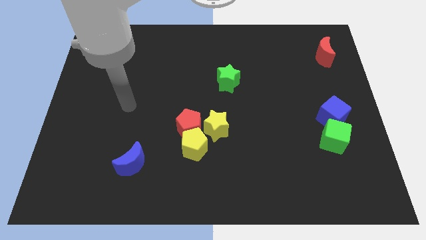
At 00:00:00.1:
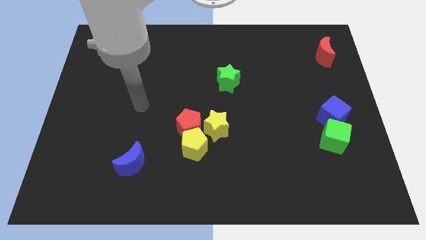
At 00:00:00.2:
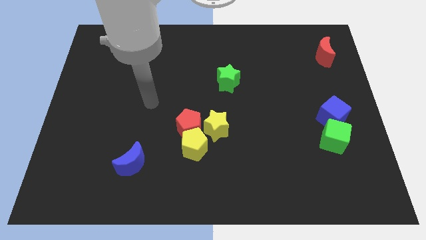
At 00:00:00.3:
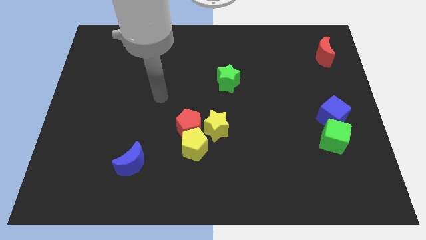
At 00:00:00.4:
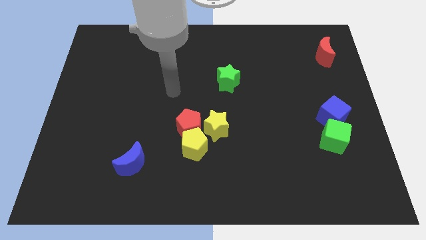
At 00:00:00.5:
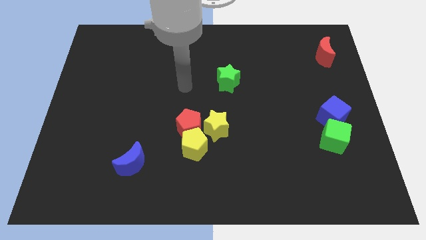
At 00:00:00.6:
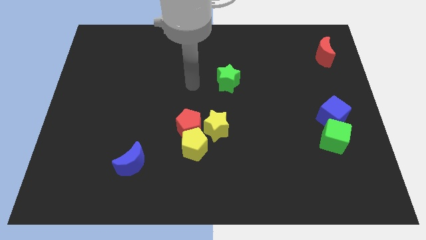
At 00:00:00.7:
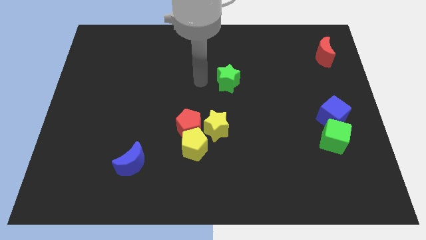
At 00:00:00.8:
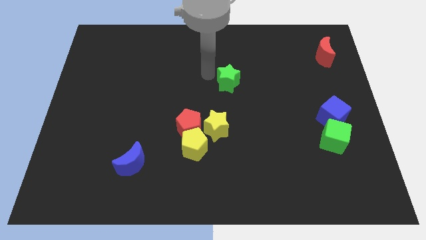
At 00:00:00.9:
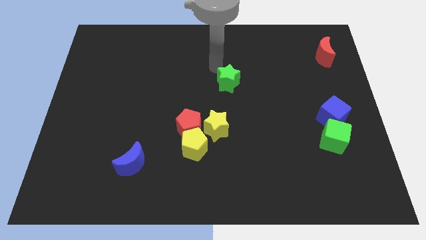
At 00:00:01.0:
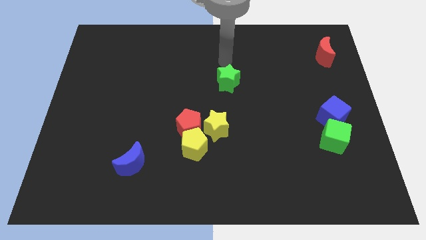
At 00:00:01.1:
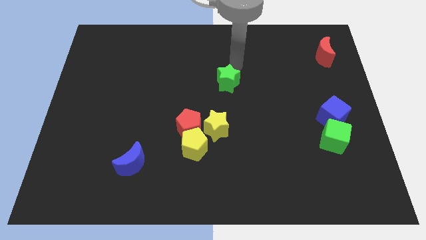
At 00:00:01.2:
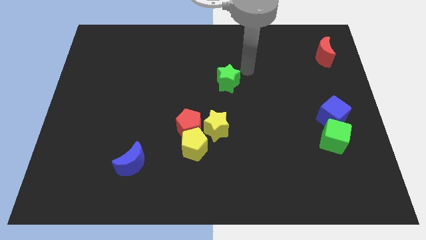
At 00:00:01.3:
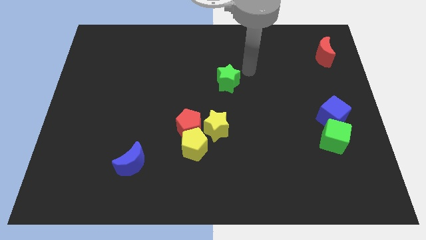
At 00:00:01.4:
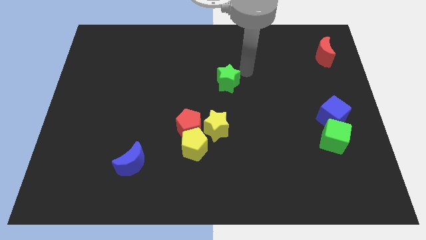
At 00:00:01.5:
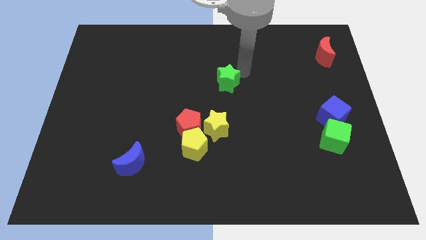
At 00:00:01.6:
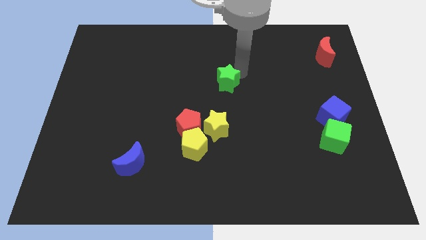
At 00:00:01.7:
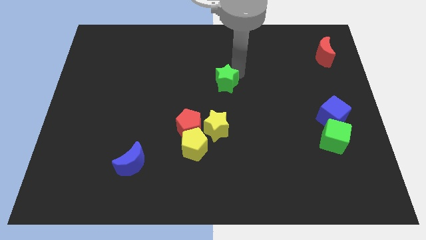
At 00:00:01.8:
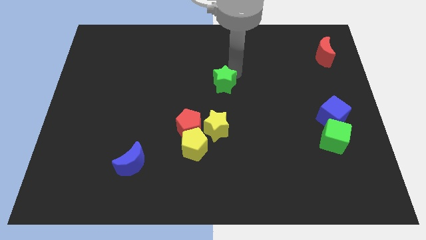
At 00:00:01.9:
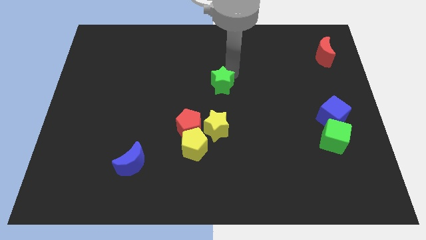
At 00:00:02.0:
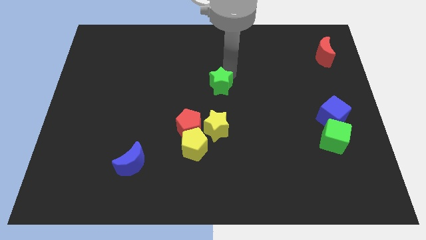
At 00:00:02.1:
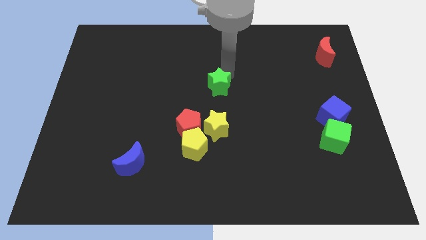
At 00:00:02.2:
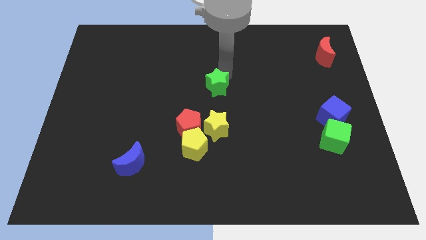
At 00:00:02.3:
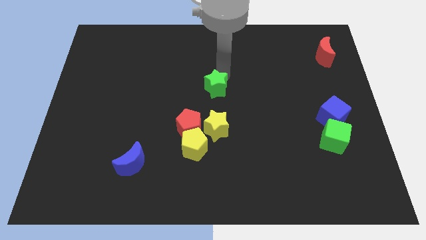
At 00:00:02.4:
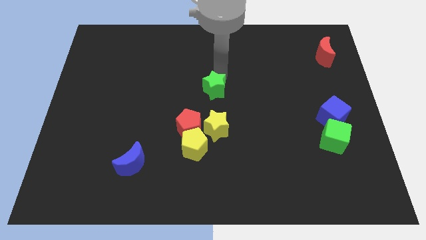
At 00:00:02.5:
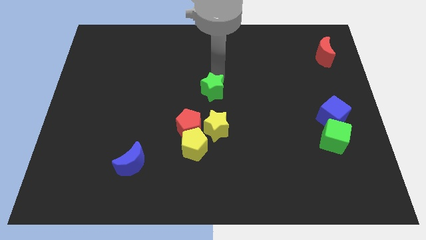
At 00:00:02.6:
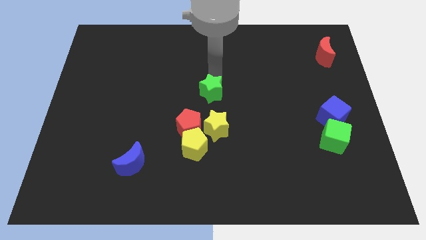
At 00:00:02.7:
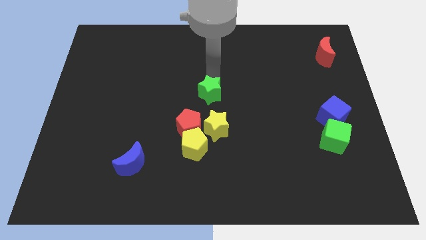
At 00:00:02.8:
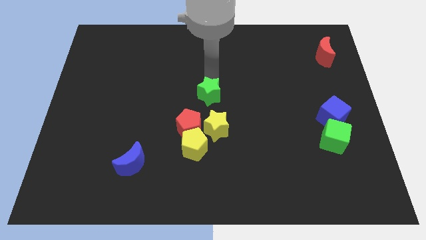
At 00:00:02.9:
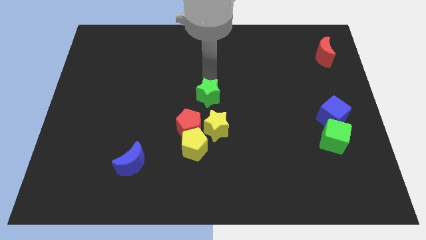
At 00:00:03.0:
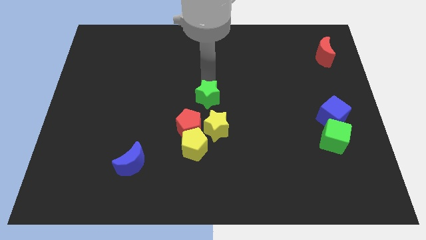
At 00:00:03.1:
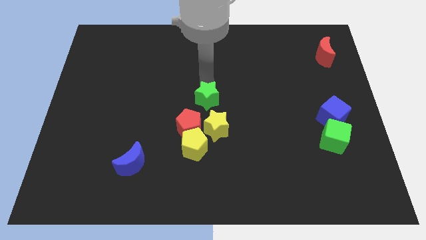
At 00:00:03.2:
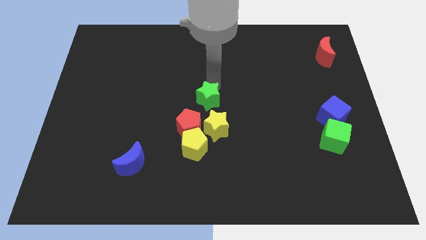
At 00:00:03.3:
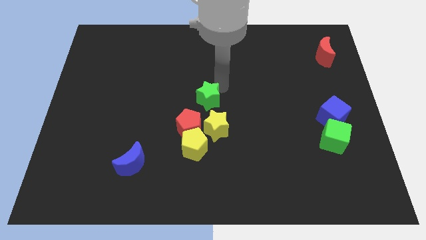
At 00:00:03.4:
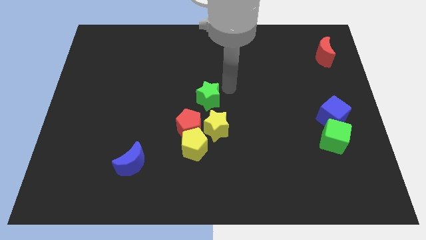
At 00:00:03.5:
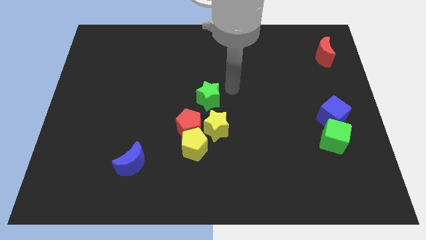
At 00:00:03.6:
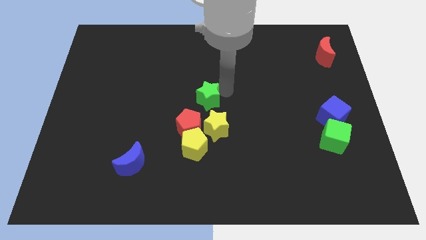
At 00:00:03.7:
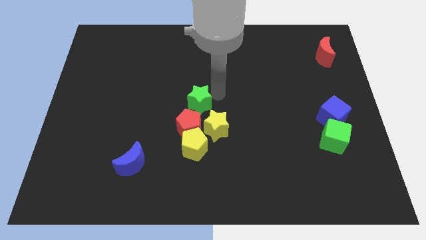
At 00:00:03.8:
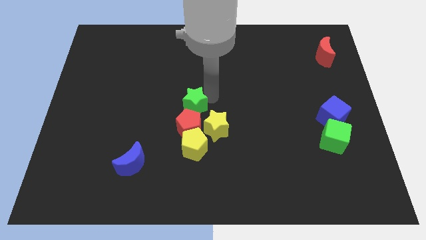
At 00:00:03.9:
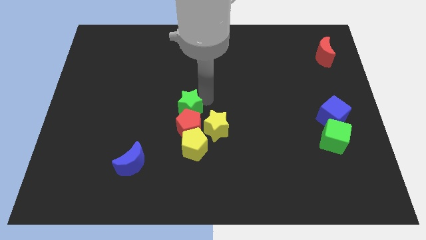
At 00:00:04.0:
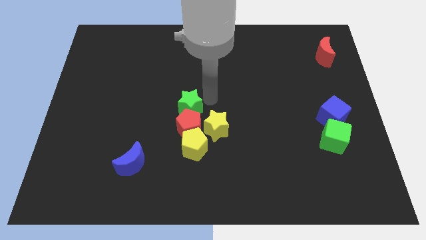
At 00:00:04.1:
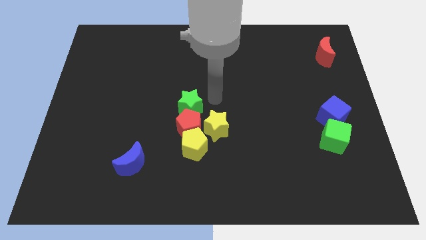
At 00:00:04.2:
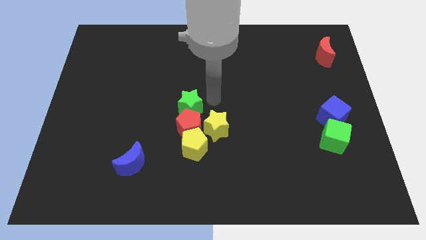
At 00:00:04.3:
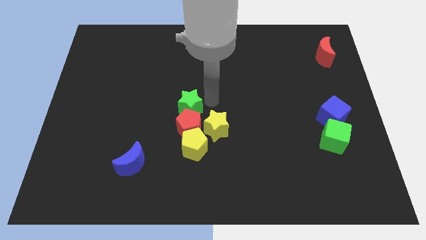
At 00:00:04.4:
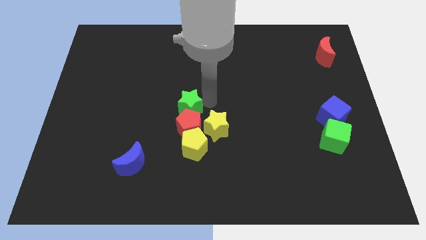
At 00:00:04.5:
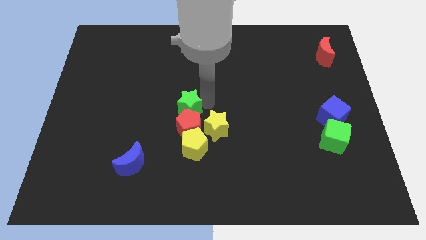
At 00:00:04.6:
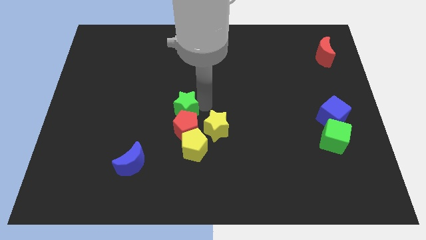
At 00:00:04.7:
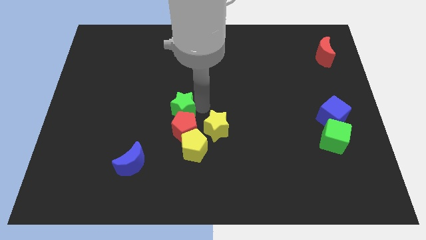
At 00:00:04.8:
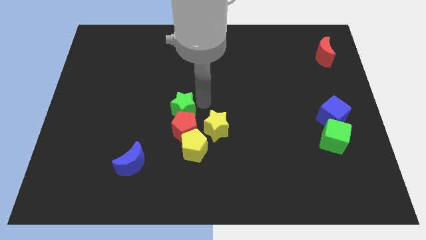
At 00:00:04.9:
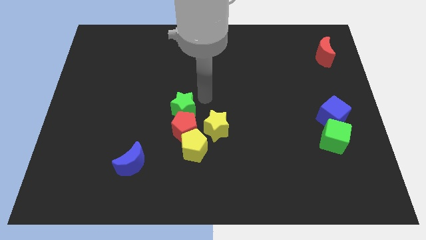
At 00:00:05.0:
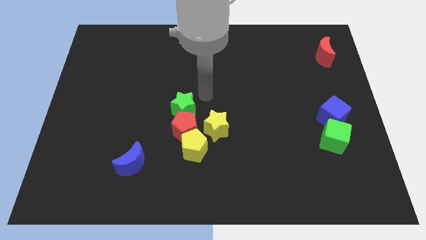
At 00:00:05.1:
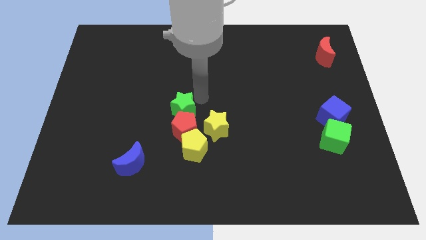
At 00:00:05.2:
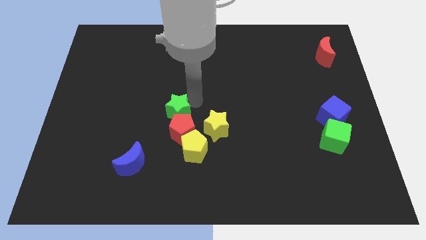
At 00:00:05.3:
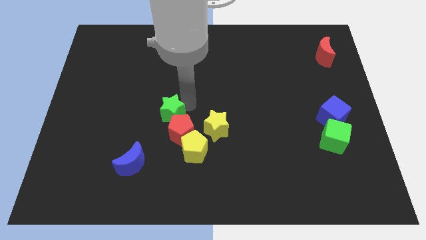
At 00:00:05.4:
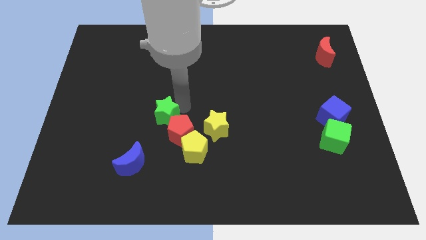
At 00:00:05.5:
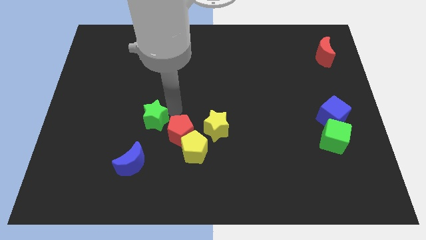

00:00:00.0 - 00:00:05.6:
put the green star to the left side of the red pentagon

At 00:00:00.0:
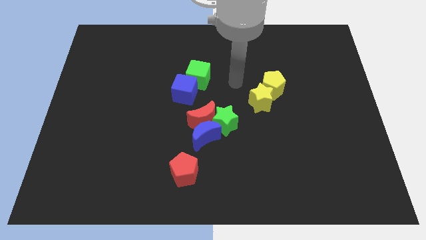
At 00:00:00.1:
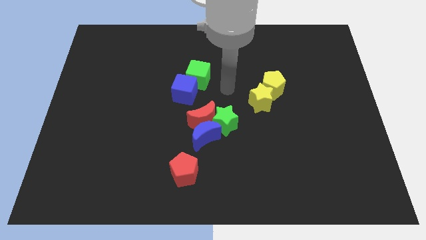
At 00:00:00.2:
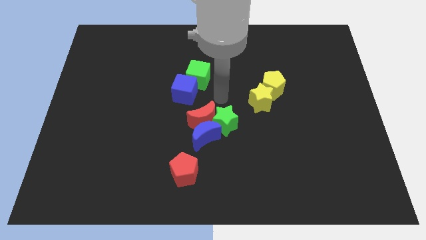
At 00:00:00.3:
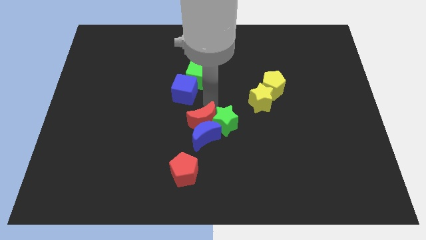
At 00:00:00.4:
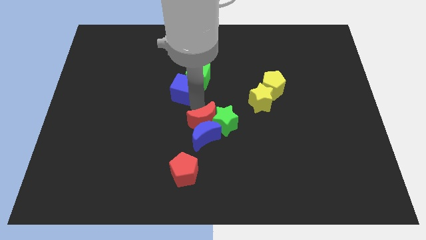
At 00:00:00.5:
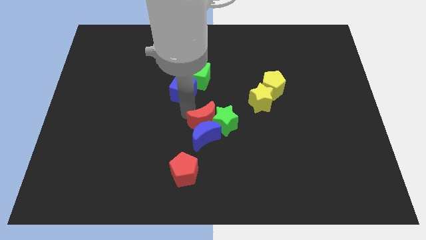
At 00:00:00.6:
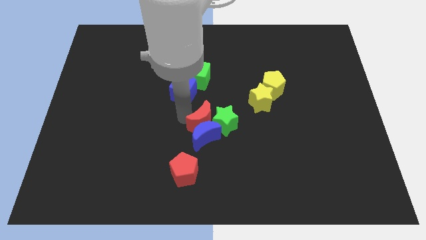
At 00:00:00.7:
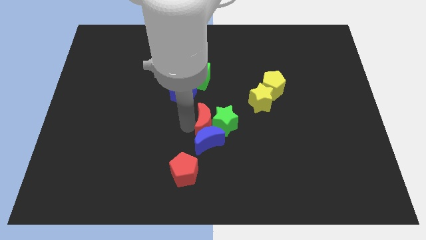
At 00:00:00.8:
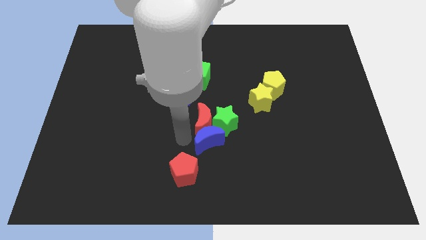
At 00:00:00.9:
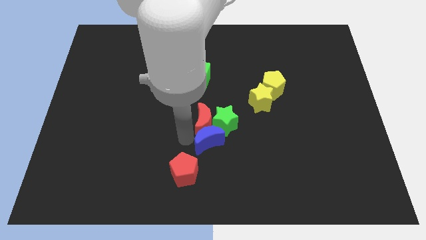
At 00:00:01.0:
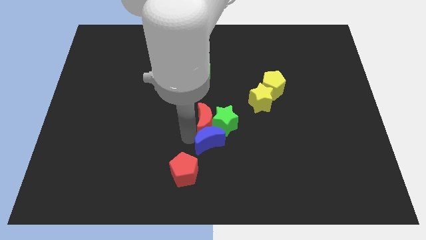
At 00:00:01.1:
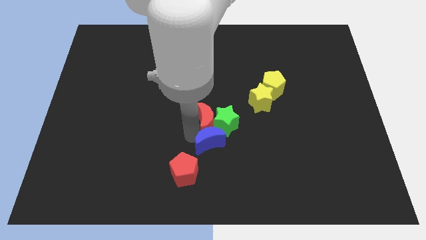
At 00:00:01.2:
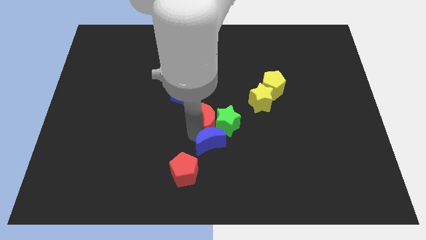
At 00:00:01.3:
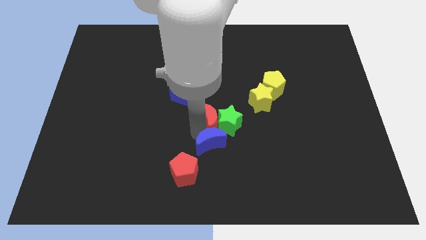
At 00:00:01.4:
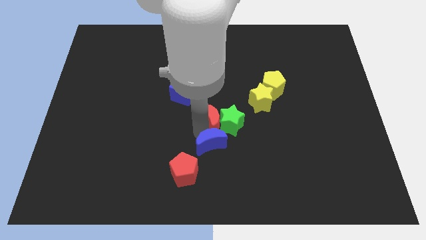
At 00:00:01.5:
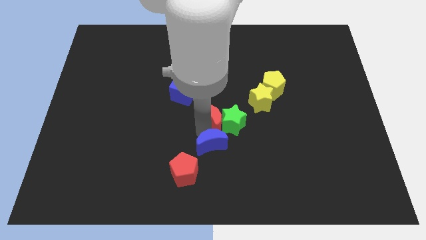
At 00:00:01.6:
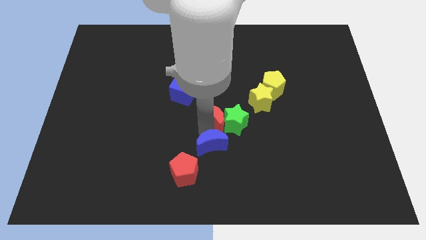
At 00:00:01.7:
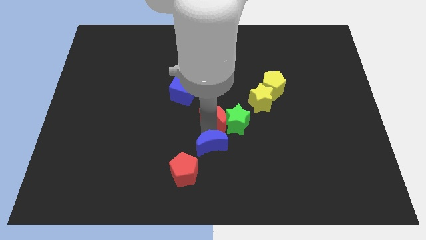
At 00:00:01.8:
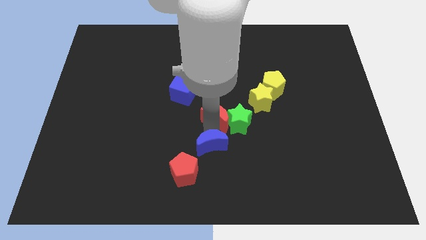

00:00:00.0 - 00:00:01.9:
push the red moon diagonally down and to the left of the yellow star

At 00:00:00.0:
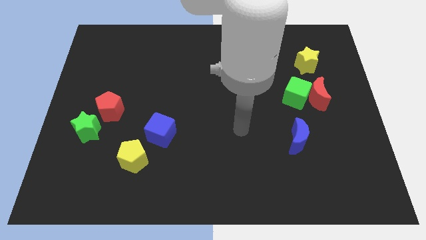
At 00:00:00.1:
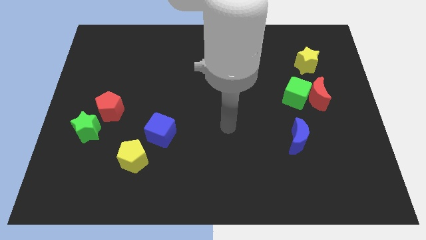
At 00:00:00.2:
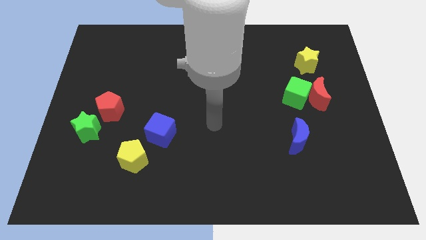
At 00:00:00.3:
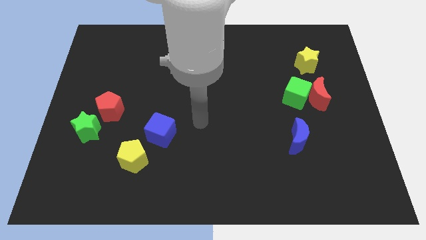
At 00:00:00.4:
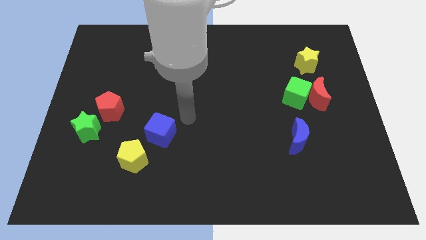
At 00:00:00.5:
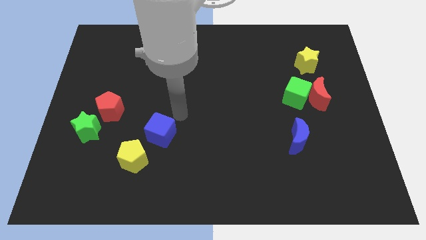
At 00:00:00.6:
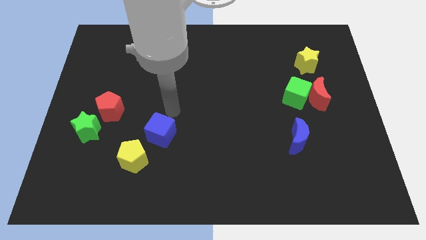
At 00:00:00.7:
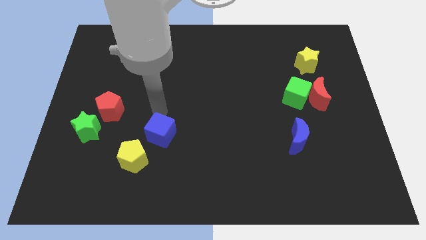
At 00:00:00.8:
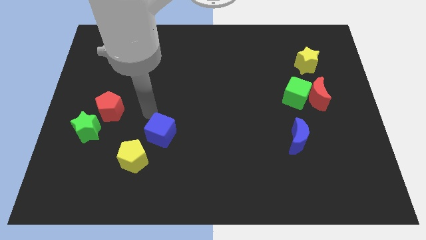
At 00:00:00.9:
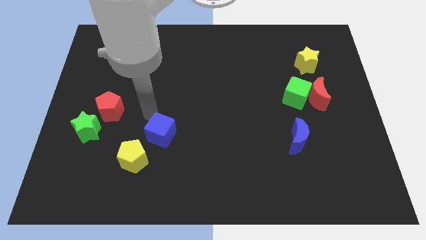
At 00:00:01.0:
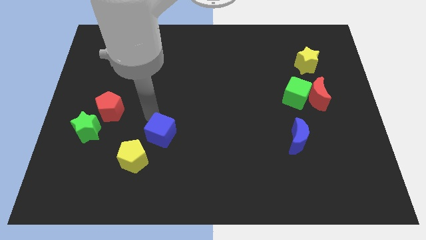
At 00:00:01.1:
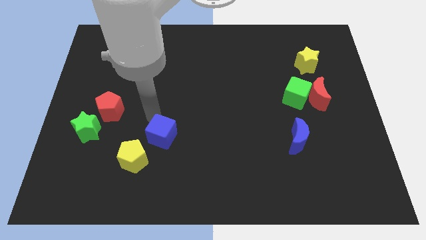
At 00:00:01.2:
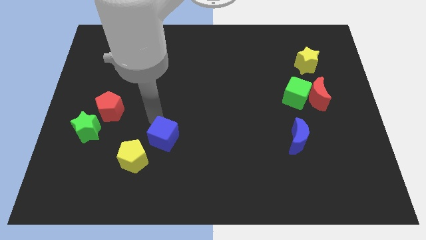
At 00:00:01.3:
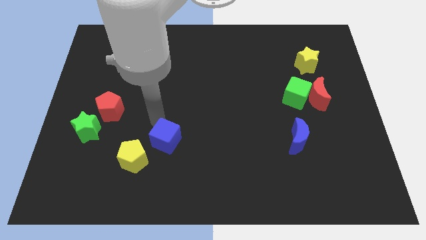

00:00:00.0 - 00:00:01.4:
push the blue cube to the right side of the yellow pentagon
